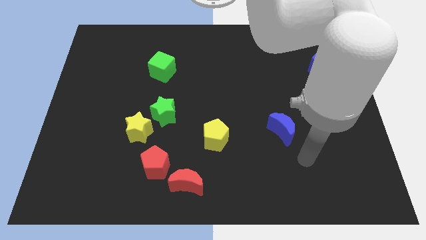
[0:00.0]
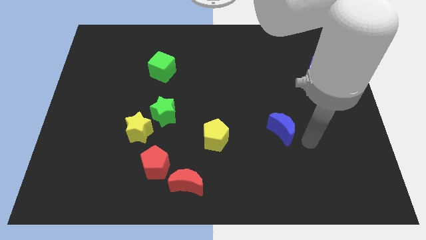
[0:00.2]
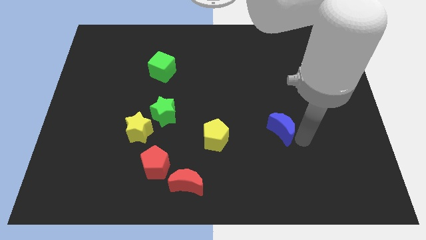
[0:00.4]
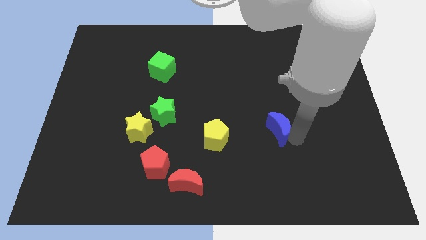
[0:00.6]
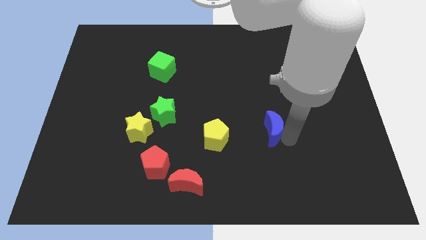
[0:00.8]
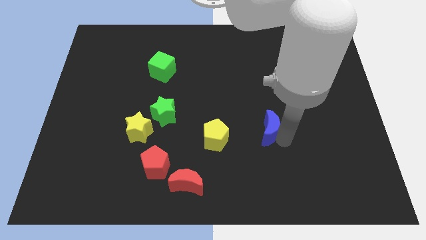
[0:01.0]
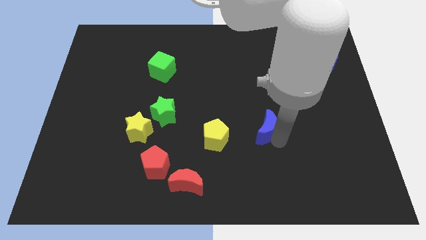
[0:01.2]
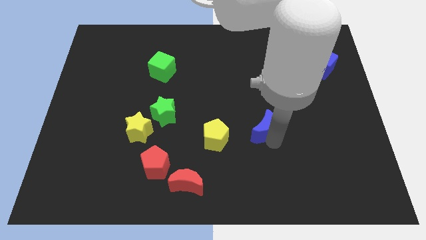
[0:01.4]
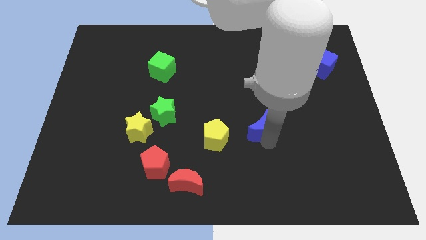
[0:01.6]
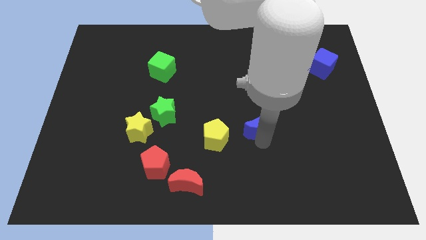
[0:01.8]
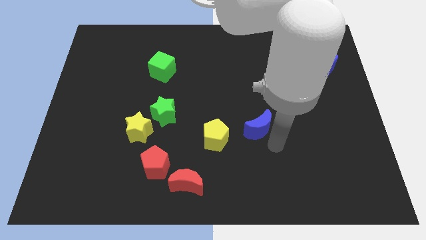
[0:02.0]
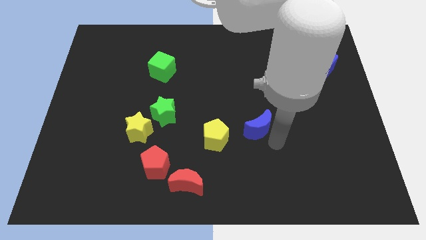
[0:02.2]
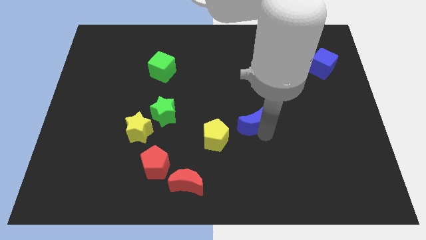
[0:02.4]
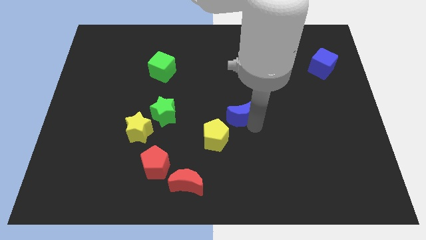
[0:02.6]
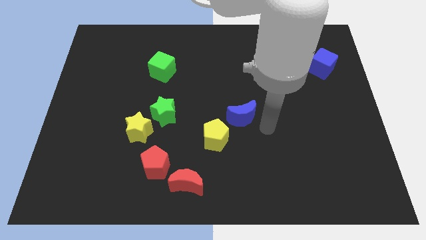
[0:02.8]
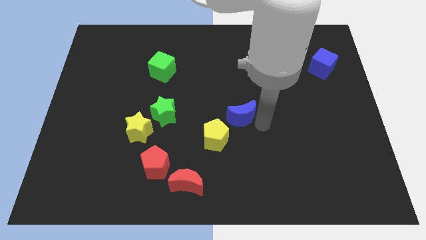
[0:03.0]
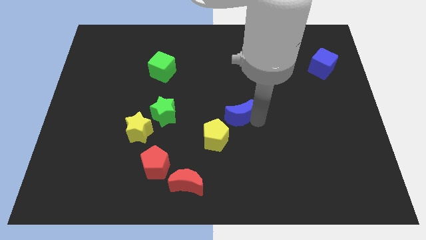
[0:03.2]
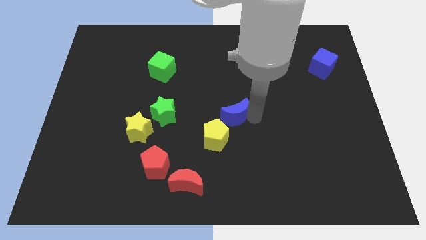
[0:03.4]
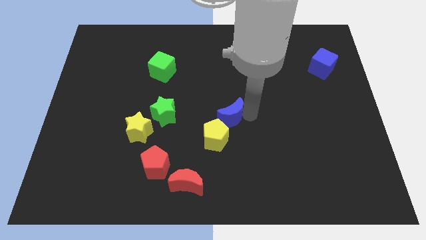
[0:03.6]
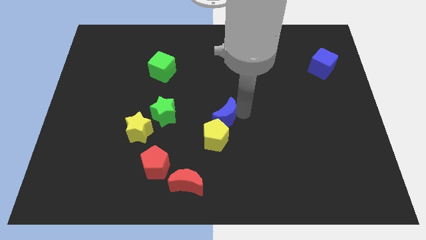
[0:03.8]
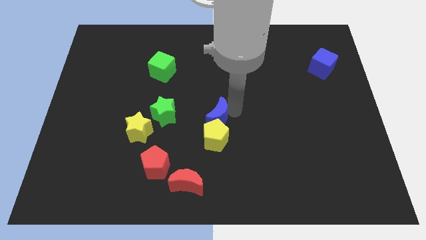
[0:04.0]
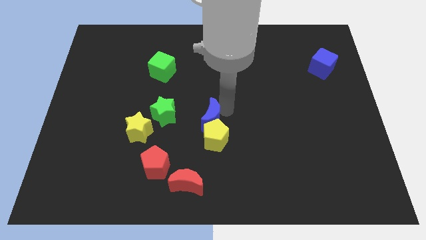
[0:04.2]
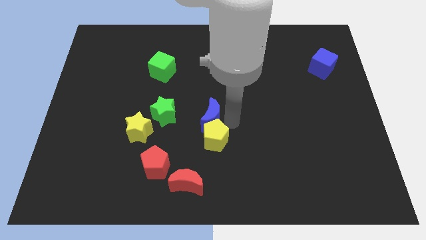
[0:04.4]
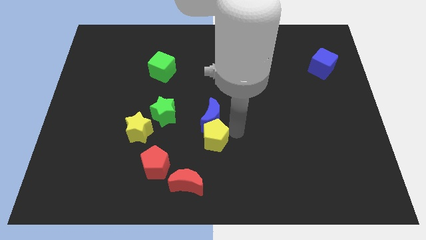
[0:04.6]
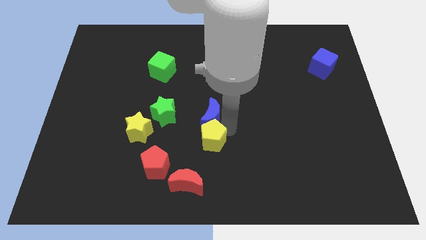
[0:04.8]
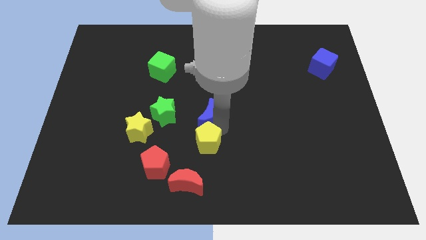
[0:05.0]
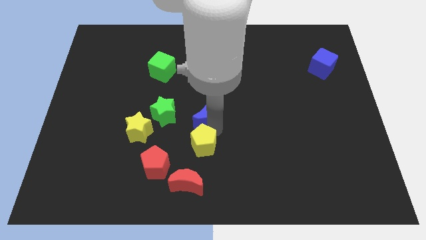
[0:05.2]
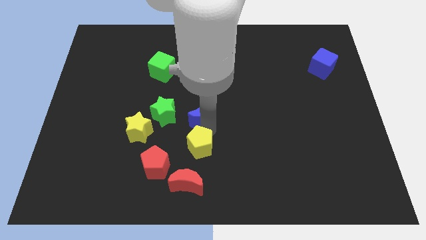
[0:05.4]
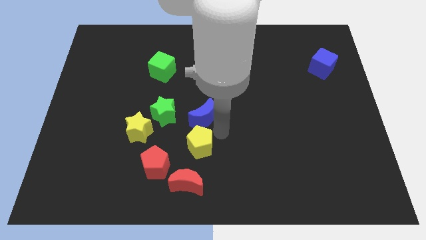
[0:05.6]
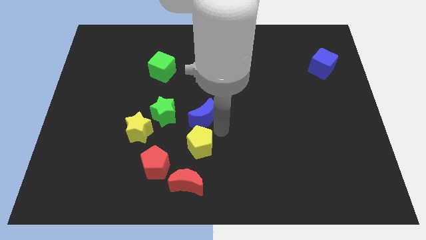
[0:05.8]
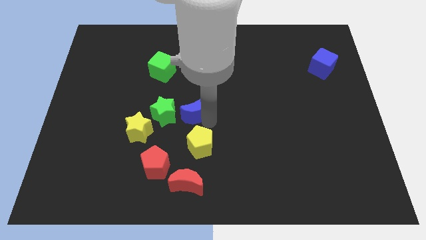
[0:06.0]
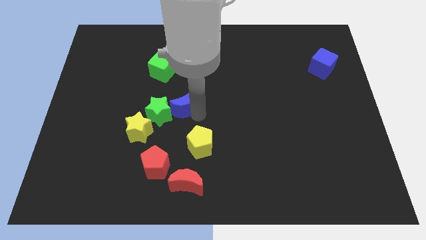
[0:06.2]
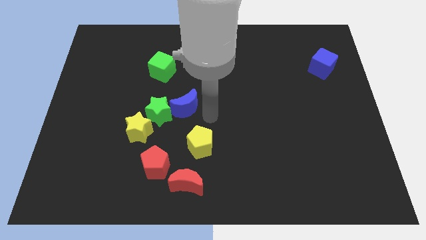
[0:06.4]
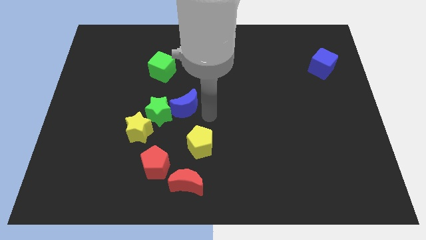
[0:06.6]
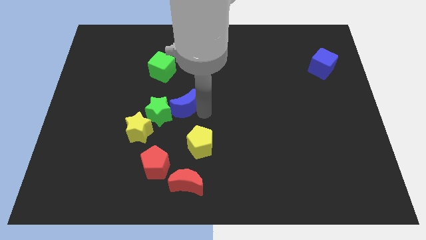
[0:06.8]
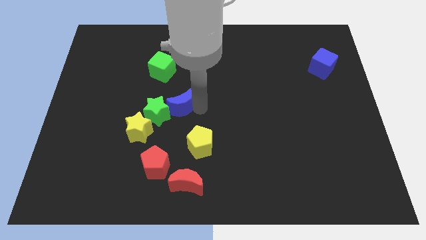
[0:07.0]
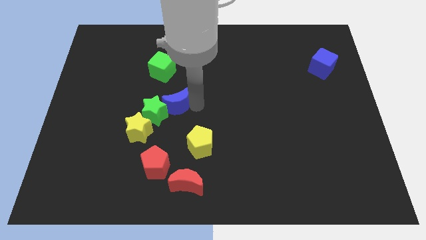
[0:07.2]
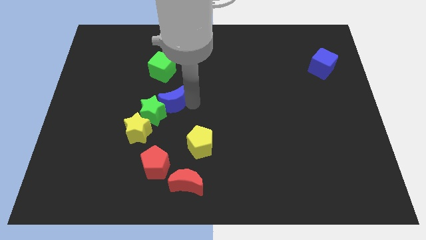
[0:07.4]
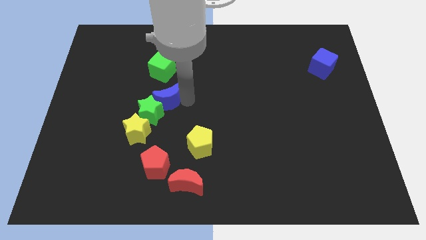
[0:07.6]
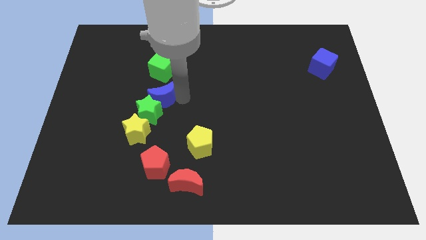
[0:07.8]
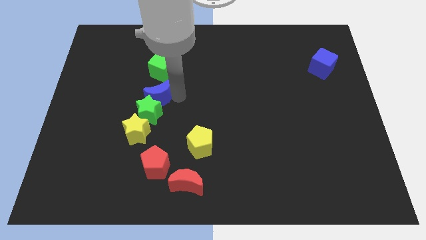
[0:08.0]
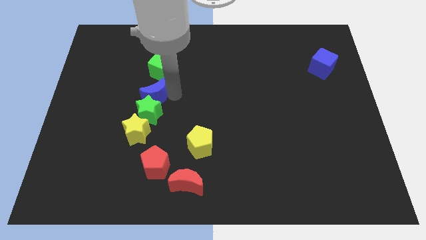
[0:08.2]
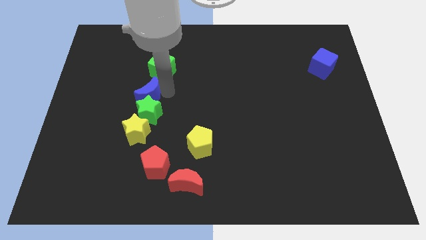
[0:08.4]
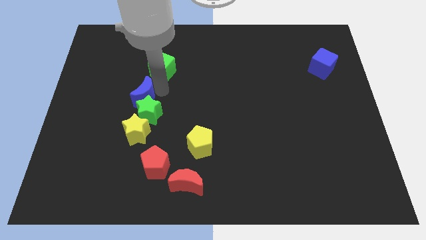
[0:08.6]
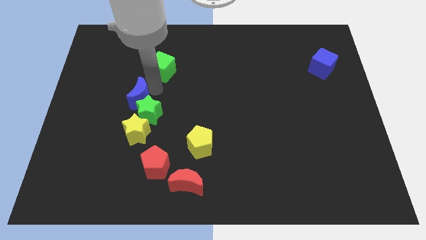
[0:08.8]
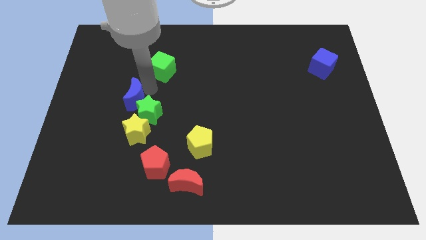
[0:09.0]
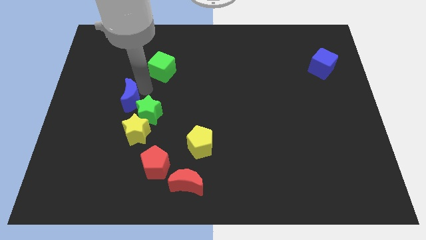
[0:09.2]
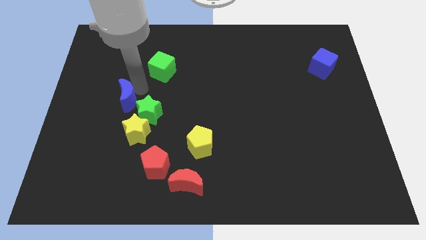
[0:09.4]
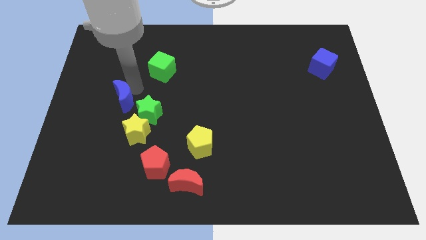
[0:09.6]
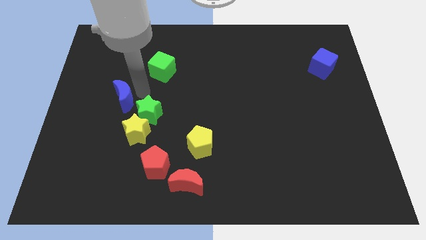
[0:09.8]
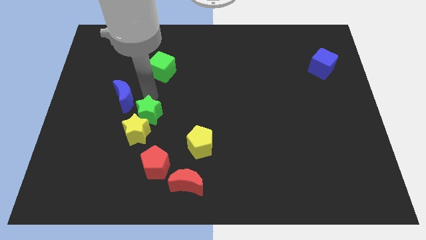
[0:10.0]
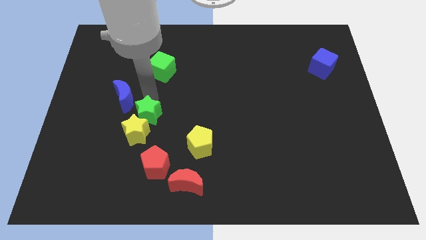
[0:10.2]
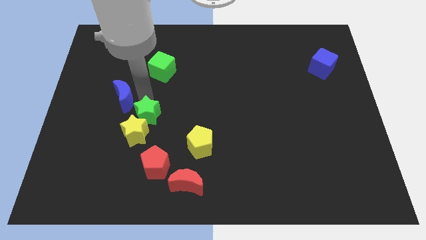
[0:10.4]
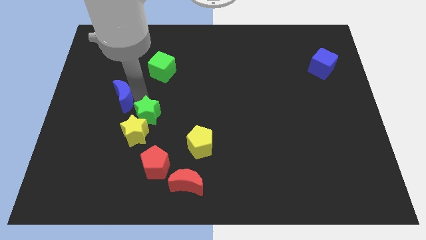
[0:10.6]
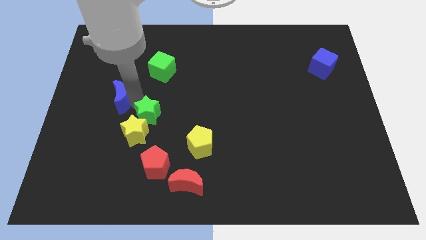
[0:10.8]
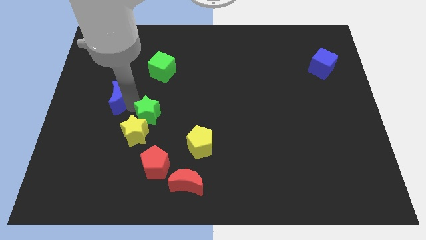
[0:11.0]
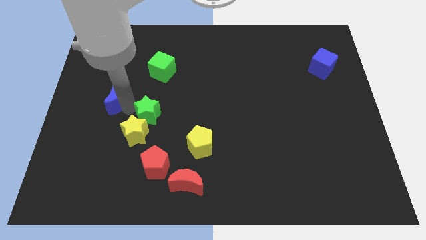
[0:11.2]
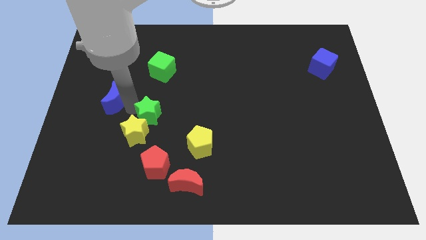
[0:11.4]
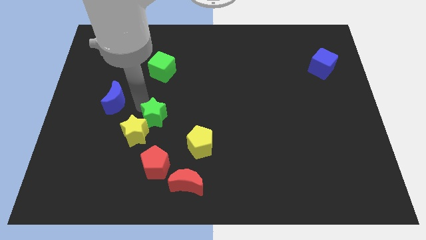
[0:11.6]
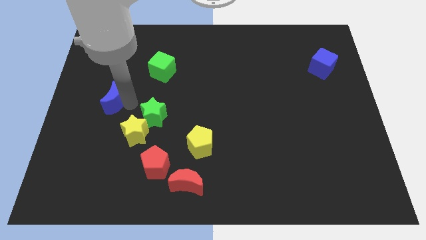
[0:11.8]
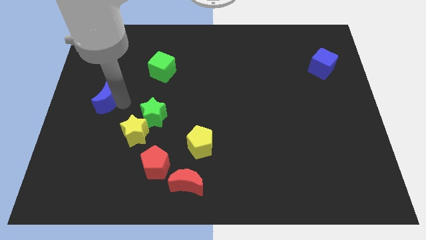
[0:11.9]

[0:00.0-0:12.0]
push the blue moon to the left side of the board

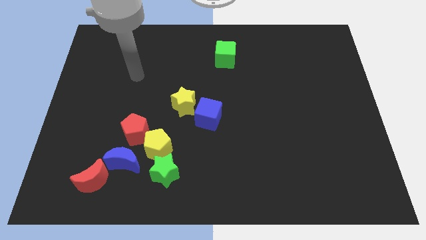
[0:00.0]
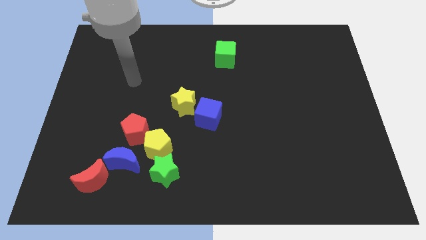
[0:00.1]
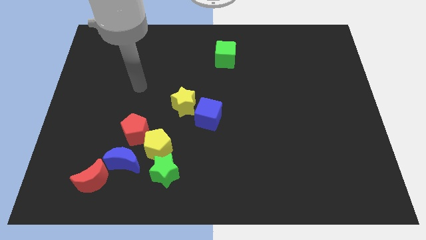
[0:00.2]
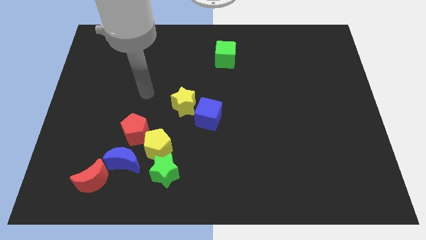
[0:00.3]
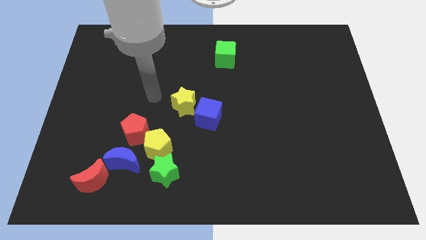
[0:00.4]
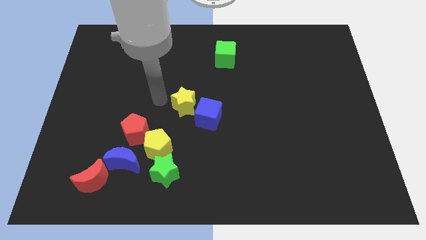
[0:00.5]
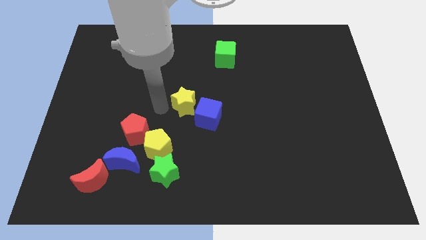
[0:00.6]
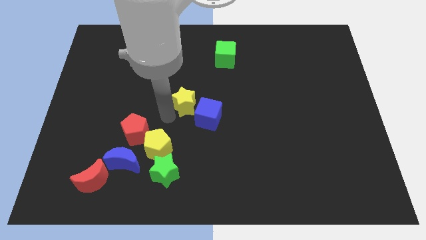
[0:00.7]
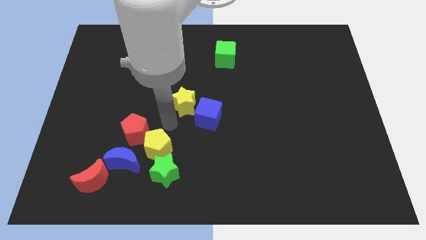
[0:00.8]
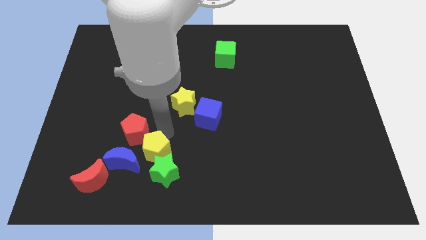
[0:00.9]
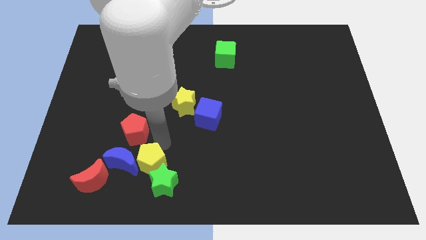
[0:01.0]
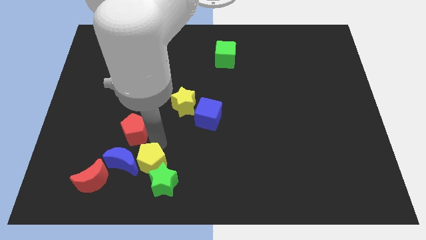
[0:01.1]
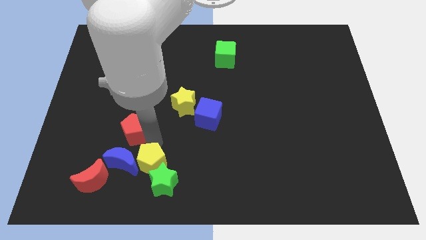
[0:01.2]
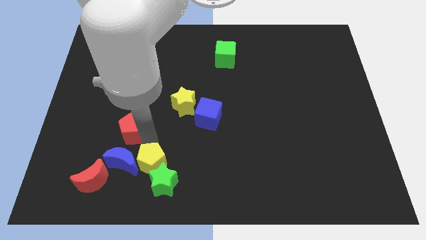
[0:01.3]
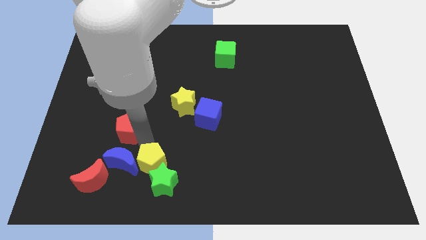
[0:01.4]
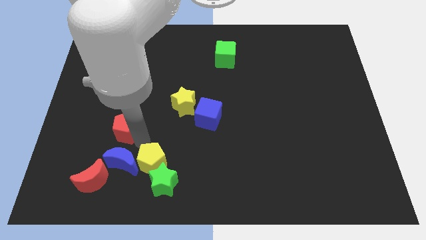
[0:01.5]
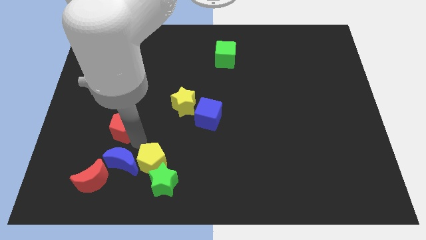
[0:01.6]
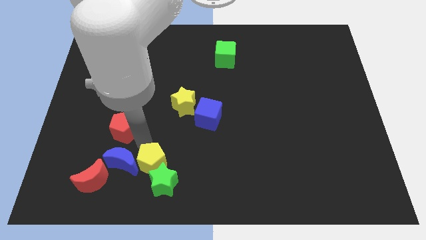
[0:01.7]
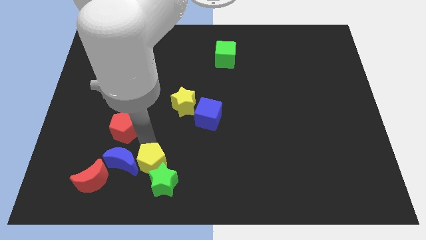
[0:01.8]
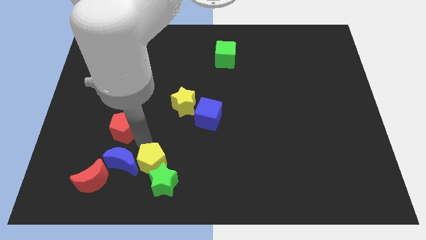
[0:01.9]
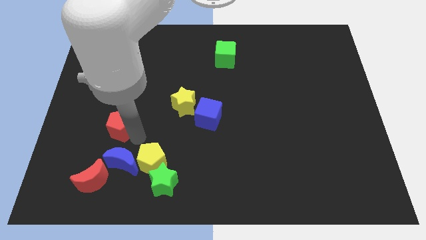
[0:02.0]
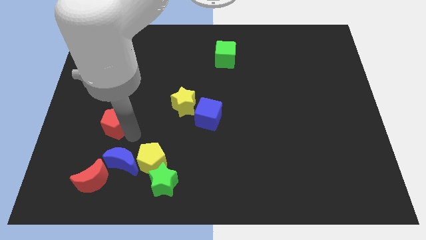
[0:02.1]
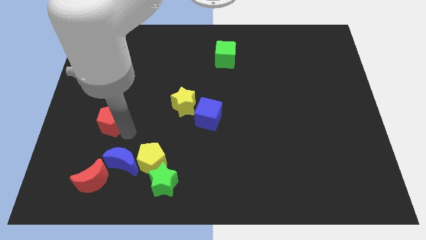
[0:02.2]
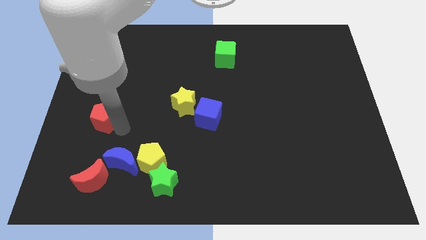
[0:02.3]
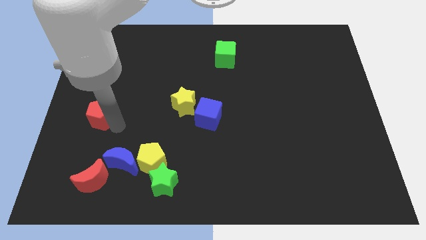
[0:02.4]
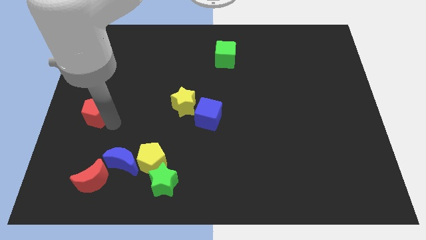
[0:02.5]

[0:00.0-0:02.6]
push the red pentagon to the center left
